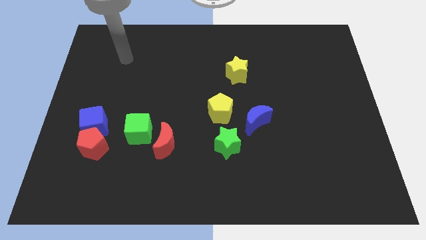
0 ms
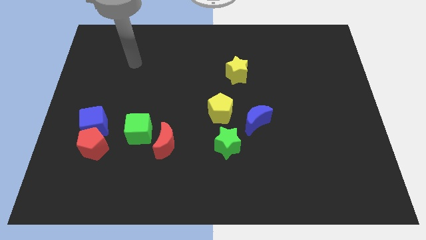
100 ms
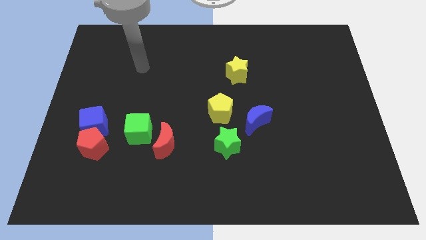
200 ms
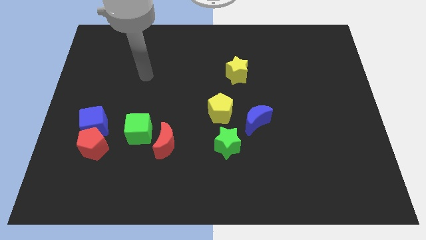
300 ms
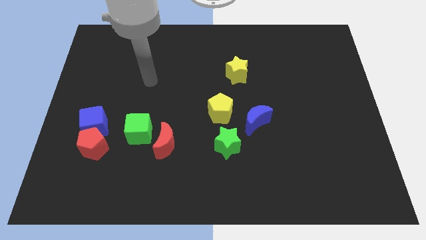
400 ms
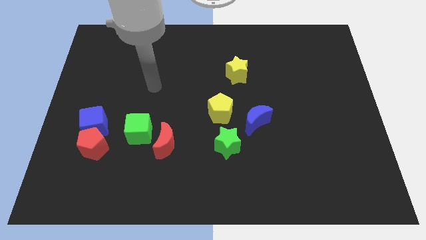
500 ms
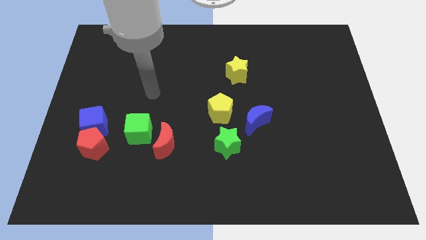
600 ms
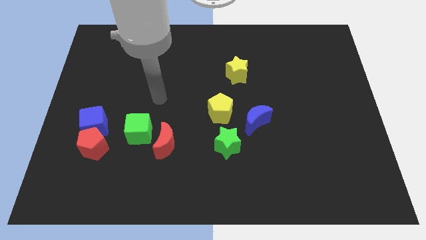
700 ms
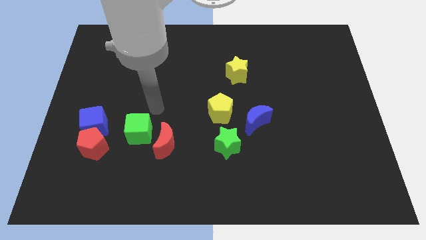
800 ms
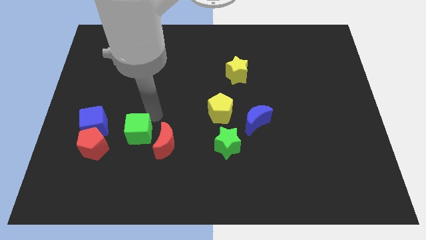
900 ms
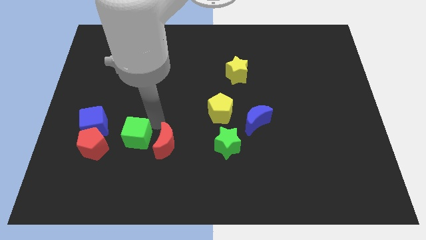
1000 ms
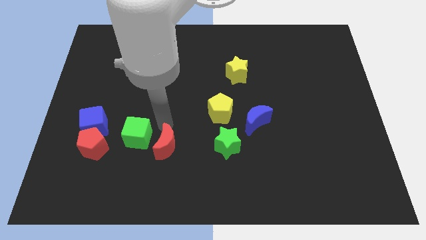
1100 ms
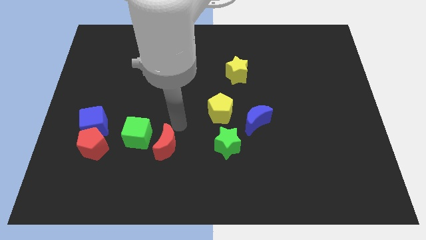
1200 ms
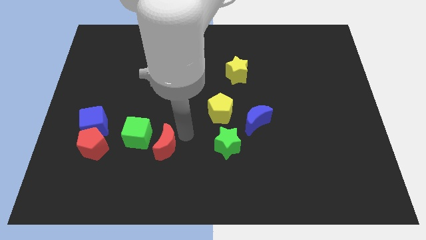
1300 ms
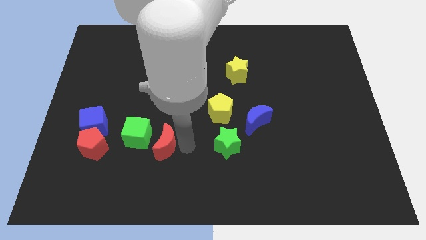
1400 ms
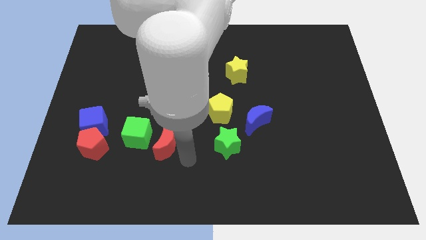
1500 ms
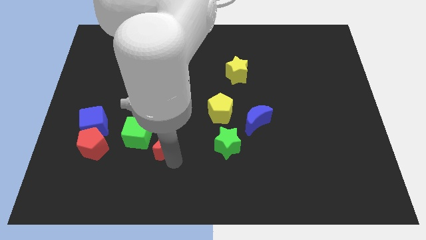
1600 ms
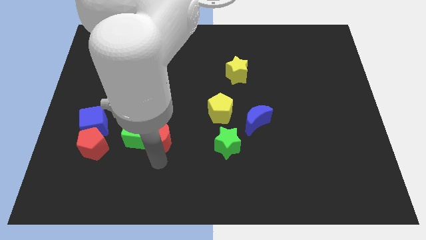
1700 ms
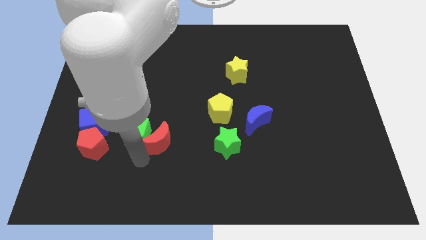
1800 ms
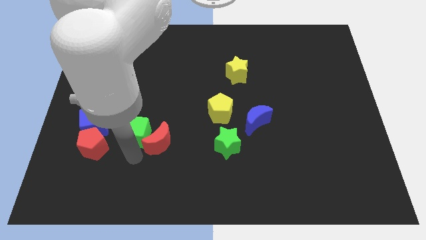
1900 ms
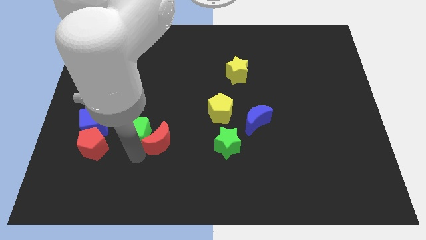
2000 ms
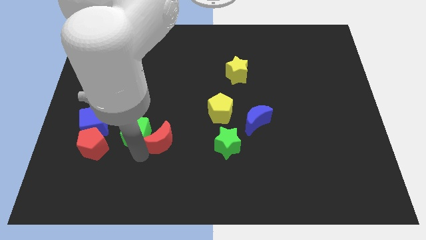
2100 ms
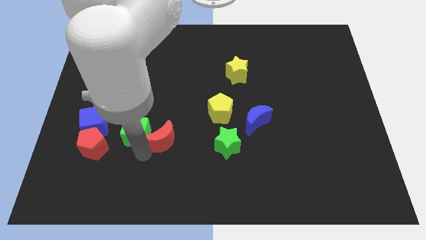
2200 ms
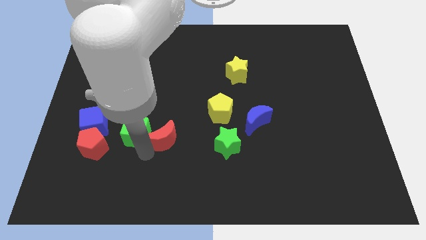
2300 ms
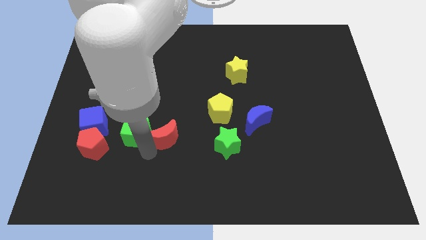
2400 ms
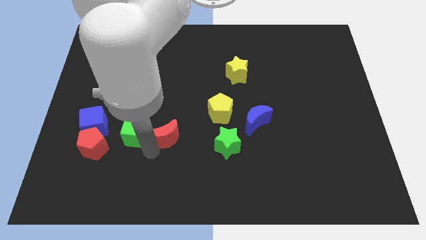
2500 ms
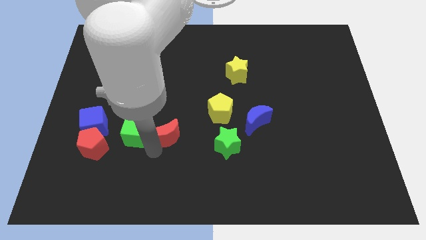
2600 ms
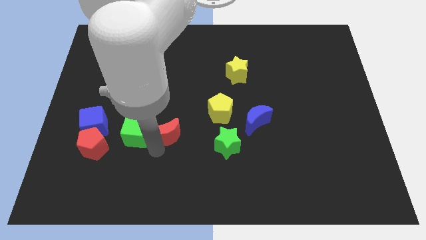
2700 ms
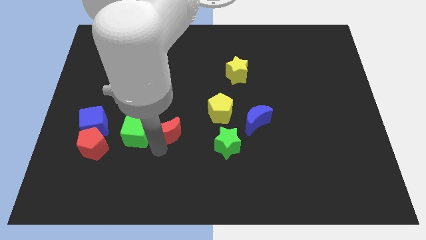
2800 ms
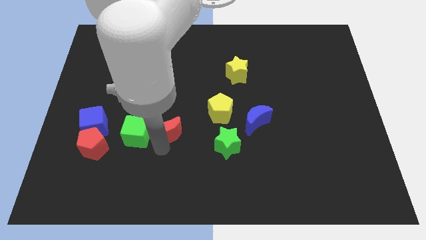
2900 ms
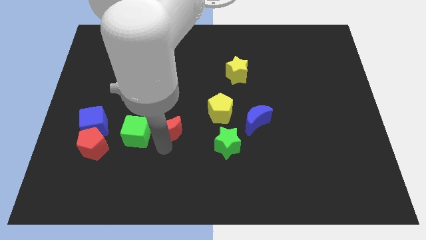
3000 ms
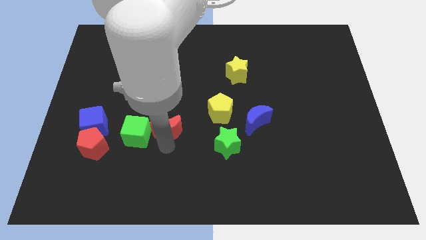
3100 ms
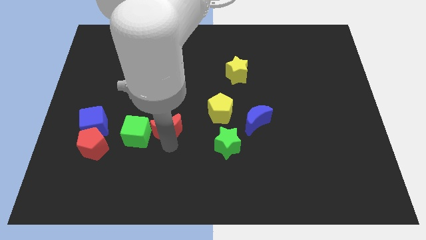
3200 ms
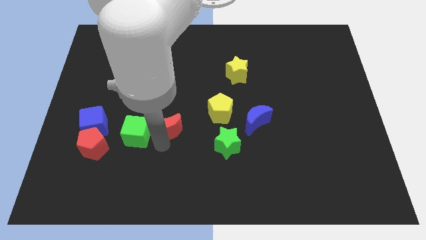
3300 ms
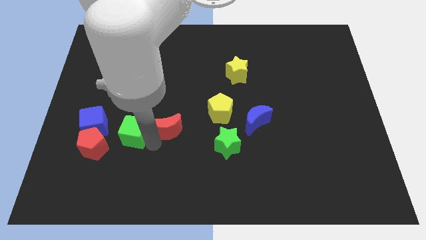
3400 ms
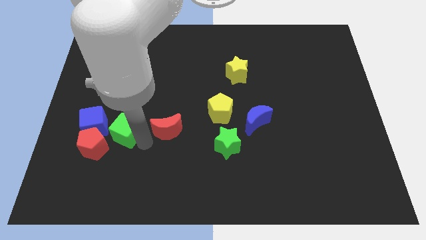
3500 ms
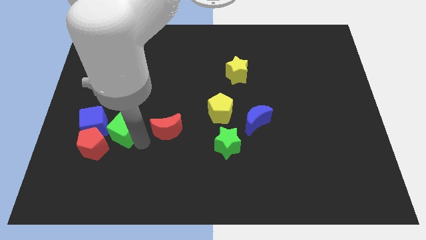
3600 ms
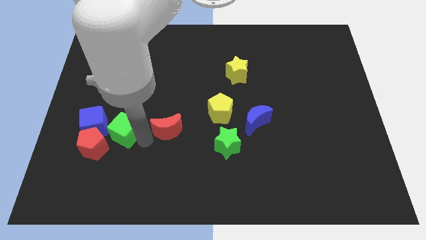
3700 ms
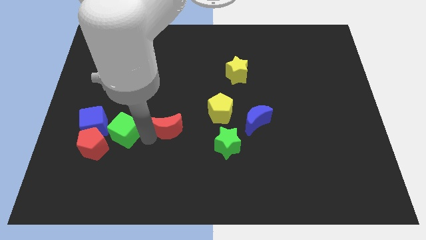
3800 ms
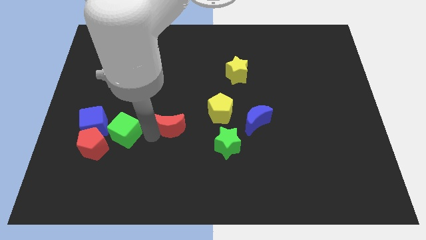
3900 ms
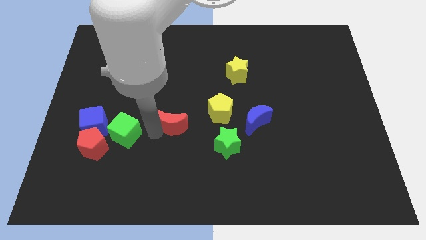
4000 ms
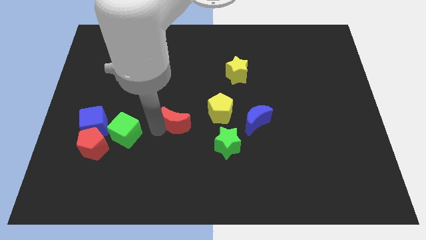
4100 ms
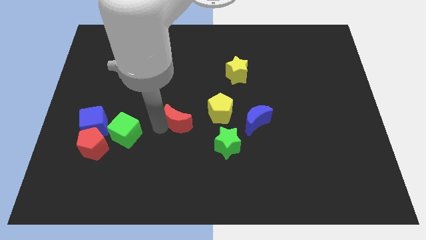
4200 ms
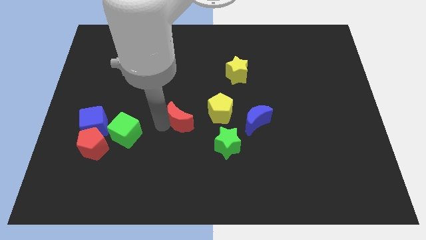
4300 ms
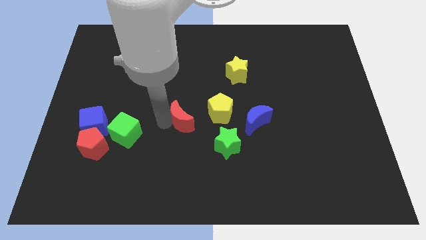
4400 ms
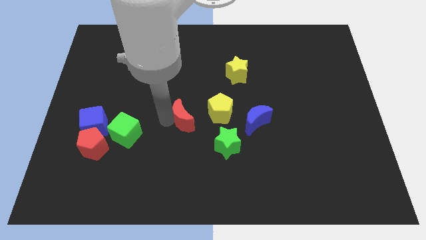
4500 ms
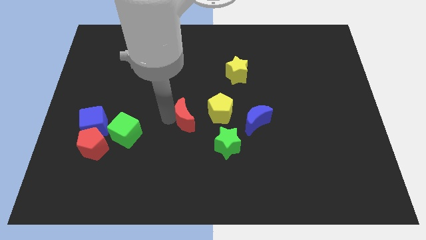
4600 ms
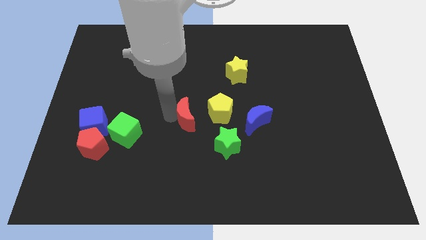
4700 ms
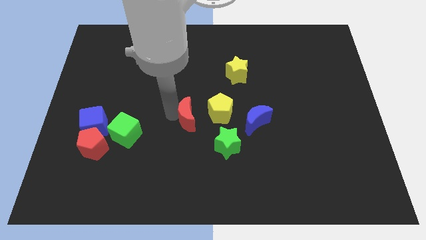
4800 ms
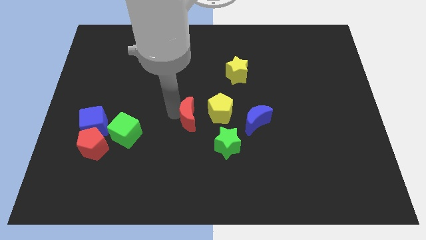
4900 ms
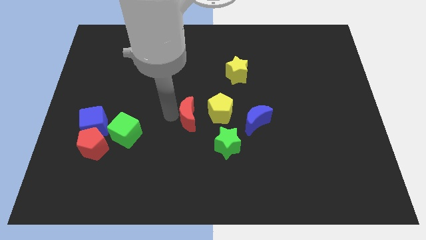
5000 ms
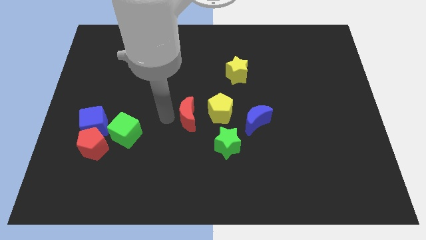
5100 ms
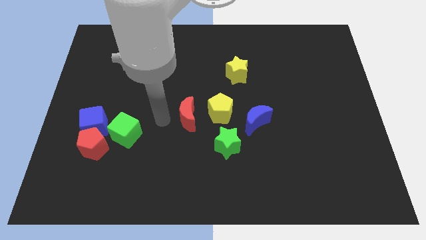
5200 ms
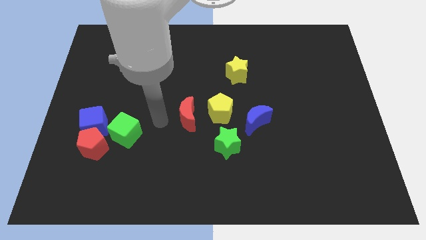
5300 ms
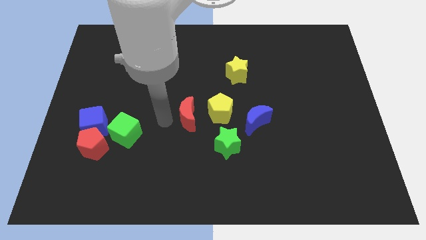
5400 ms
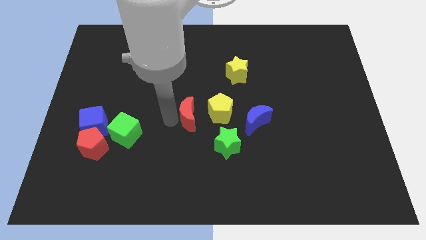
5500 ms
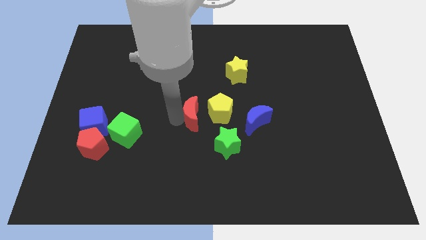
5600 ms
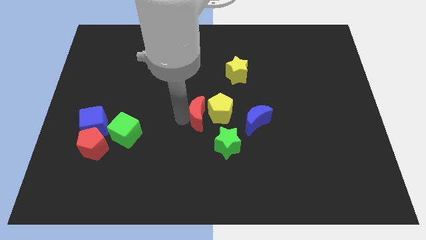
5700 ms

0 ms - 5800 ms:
push the red moon to the yellow pentagon

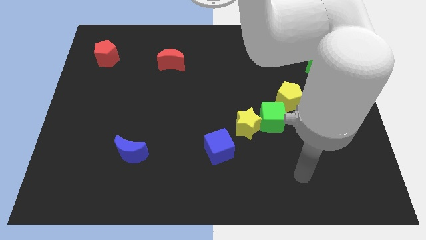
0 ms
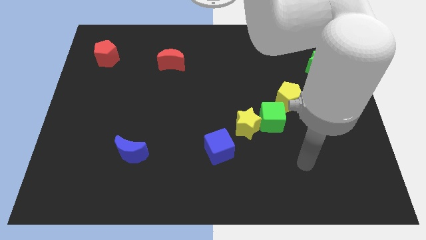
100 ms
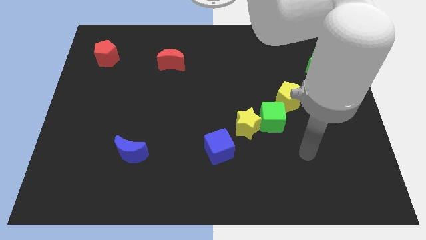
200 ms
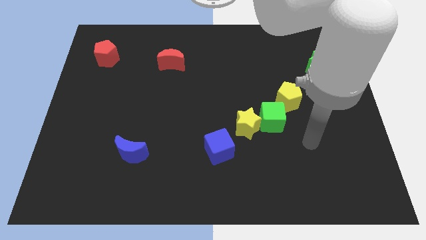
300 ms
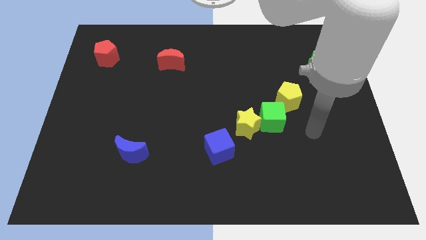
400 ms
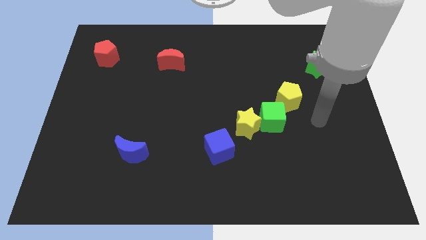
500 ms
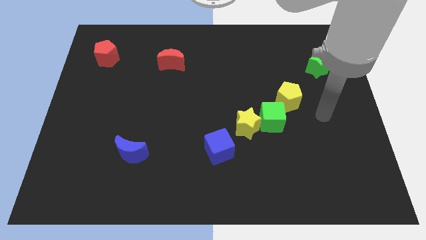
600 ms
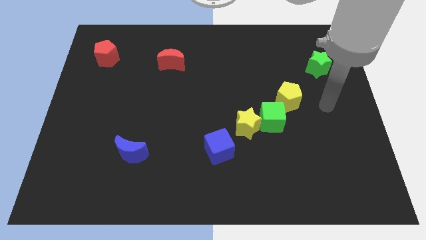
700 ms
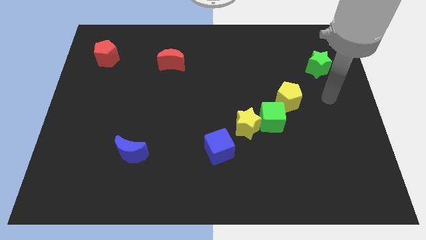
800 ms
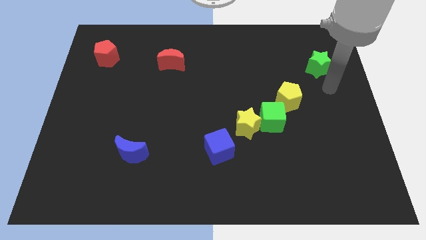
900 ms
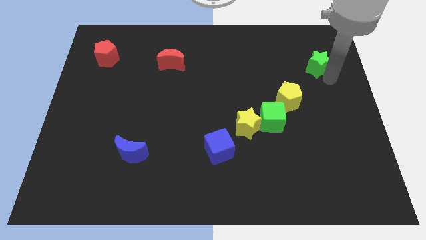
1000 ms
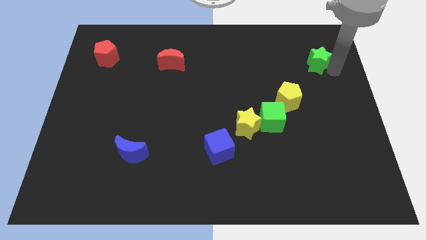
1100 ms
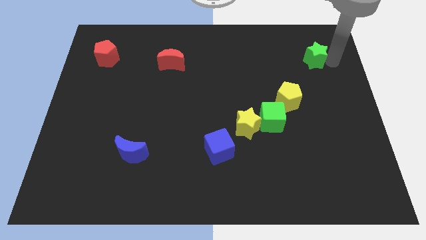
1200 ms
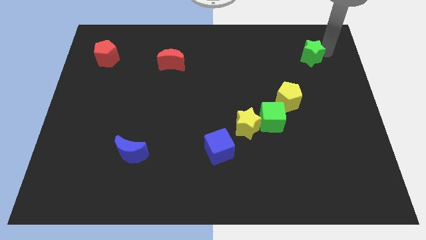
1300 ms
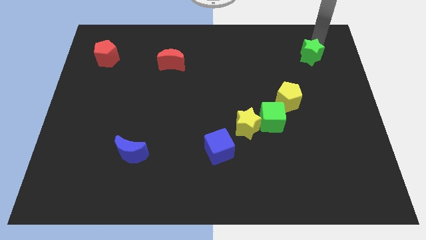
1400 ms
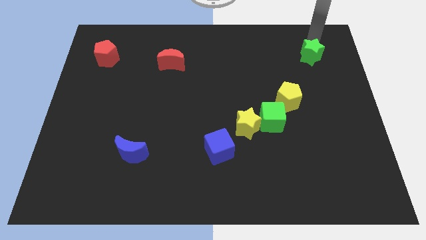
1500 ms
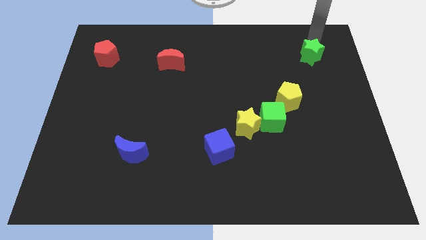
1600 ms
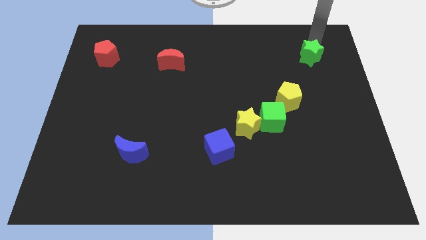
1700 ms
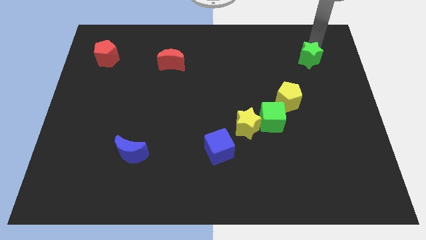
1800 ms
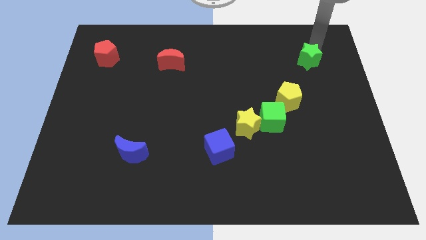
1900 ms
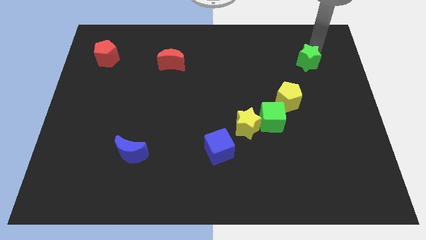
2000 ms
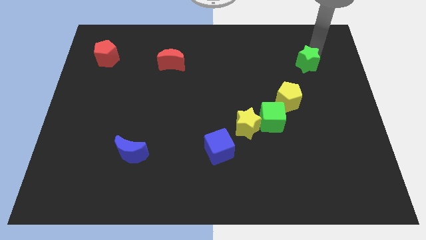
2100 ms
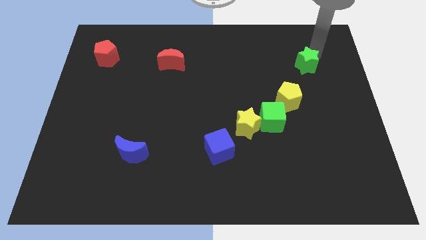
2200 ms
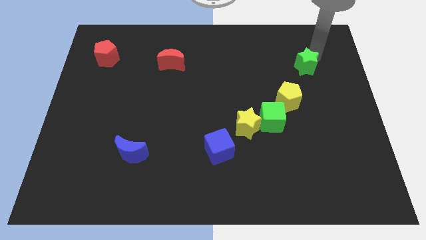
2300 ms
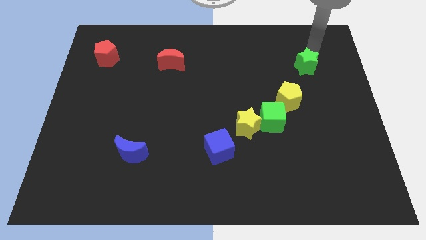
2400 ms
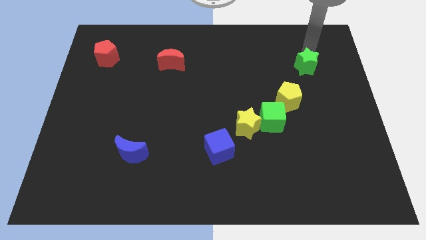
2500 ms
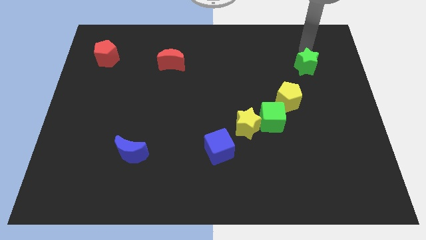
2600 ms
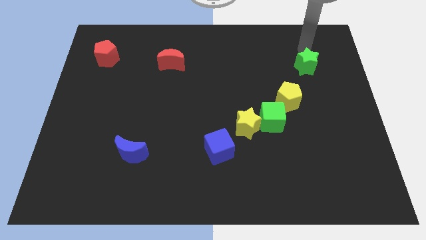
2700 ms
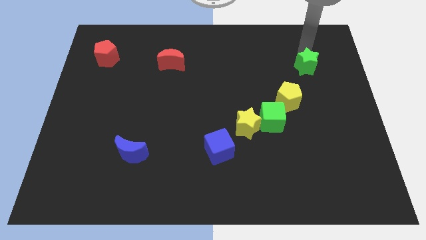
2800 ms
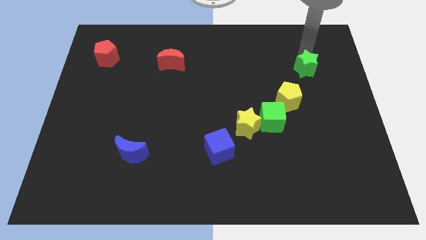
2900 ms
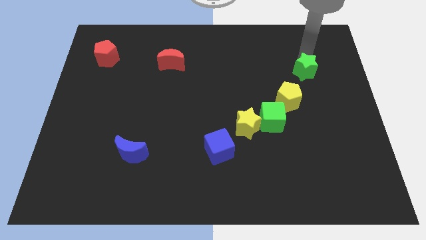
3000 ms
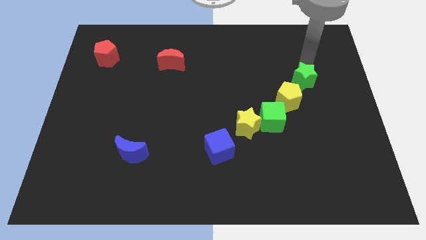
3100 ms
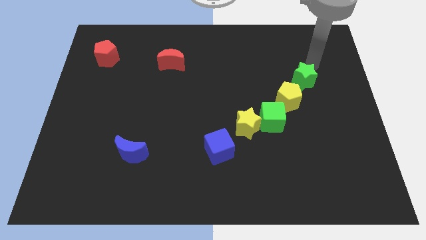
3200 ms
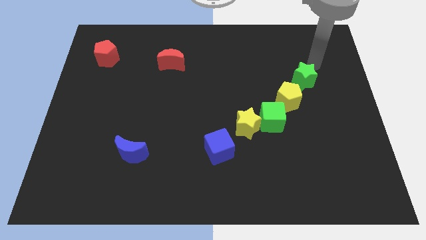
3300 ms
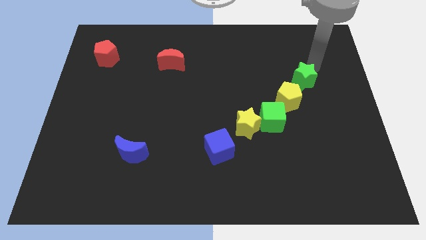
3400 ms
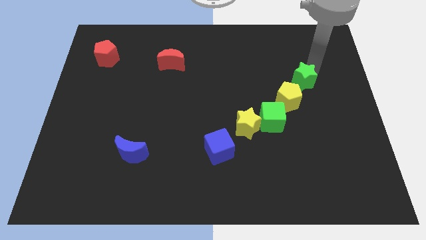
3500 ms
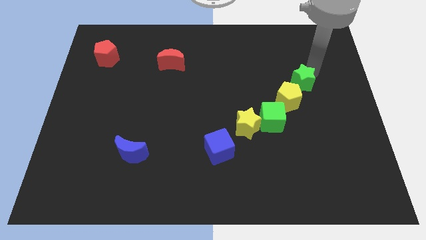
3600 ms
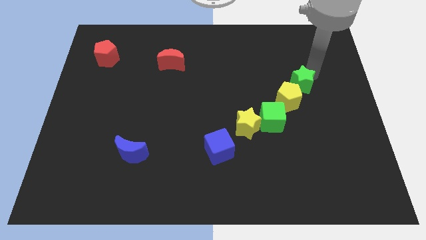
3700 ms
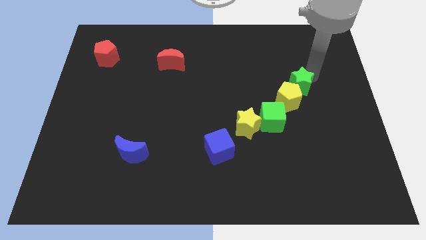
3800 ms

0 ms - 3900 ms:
push the green star towards the yellow pentagon
